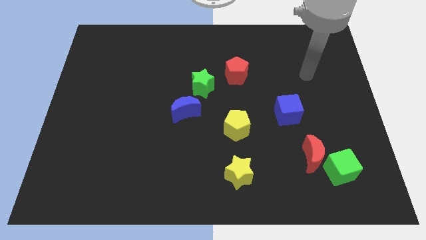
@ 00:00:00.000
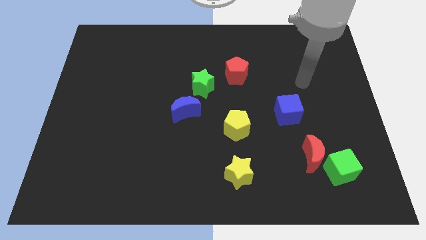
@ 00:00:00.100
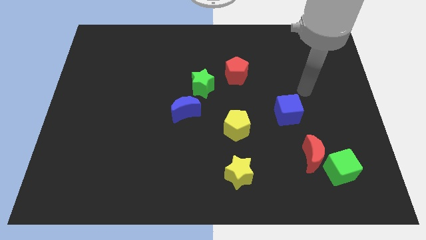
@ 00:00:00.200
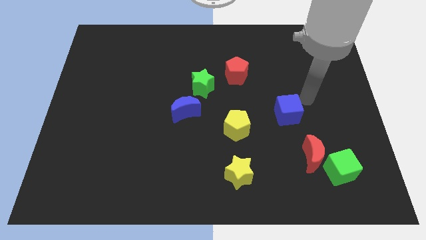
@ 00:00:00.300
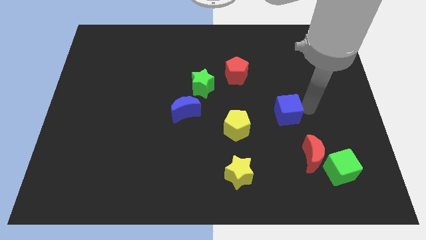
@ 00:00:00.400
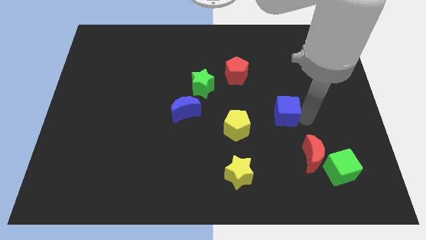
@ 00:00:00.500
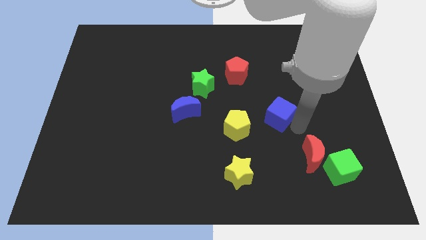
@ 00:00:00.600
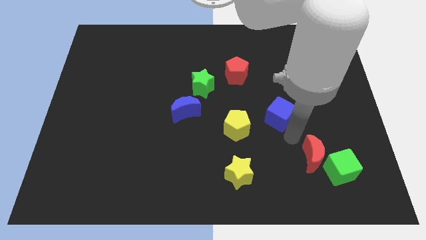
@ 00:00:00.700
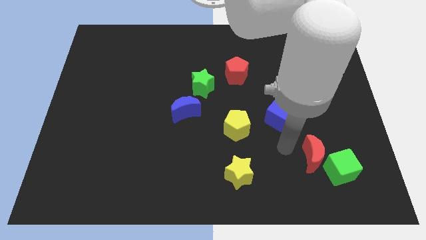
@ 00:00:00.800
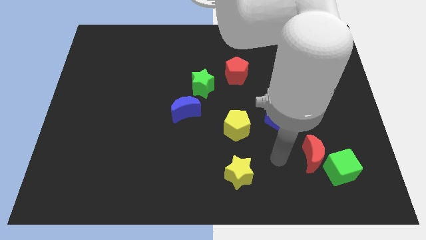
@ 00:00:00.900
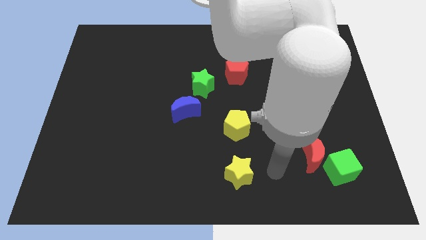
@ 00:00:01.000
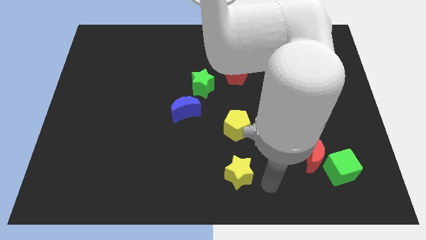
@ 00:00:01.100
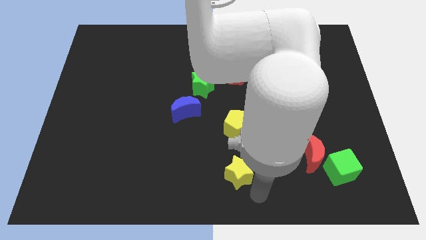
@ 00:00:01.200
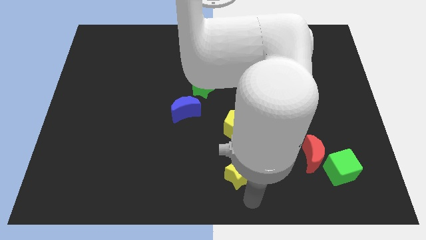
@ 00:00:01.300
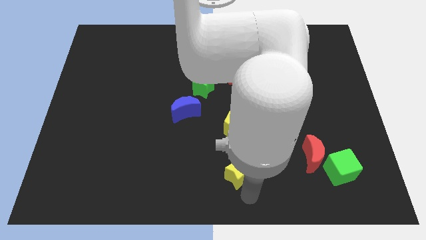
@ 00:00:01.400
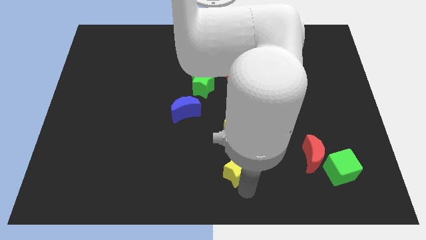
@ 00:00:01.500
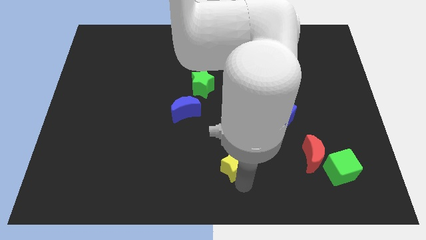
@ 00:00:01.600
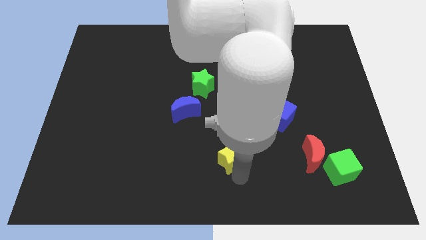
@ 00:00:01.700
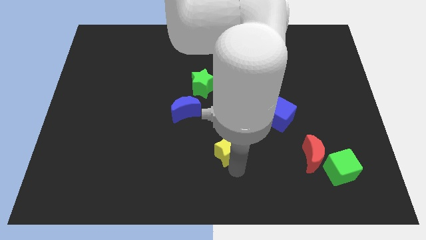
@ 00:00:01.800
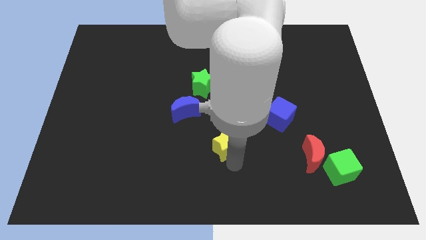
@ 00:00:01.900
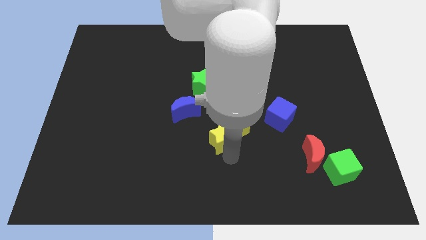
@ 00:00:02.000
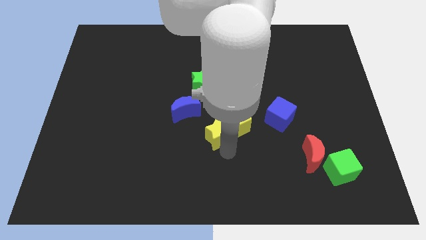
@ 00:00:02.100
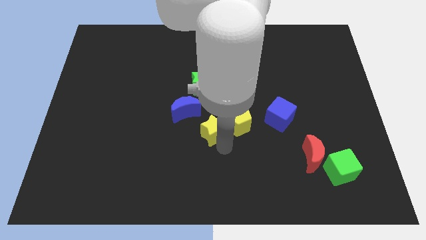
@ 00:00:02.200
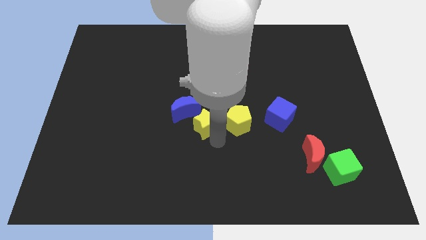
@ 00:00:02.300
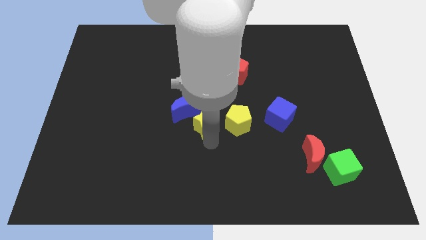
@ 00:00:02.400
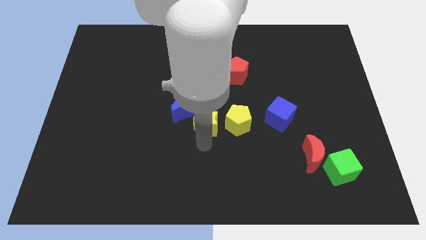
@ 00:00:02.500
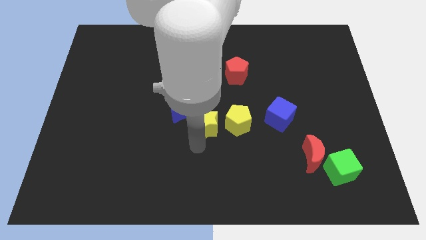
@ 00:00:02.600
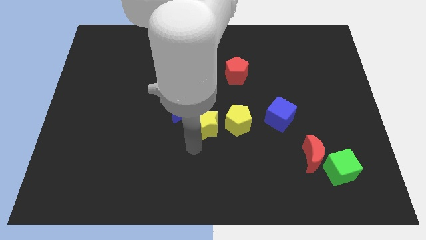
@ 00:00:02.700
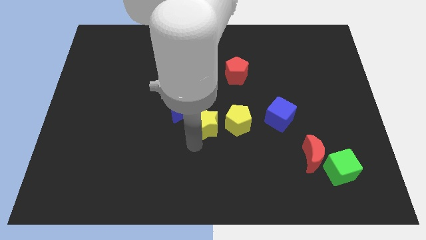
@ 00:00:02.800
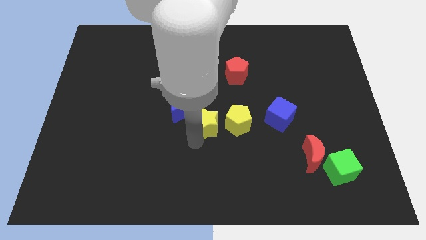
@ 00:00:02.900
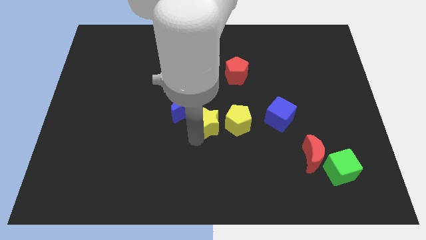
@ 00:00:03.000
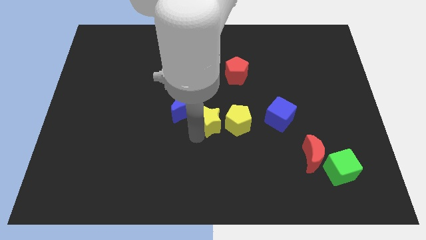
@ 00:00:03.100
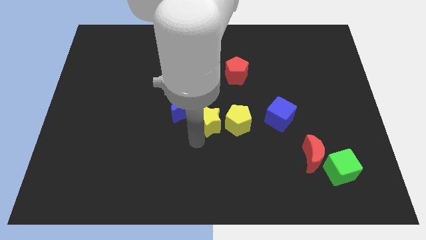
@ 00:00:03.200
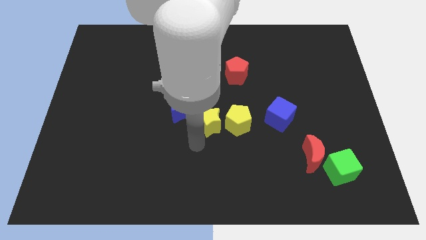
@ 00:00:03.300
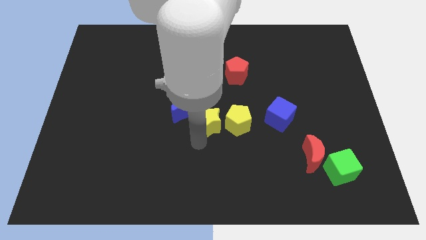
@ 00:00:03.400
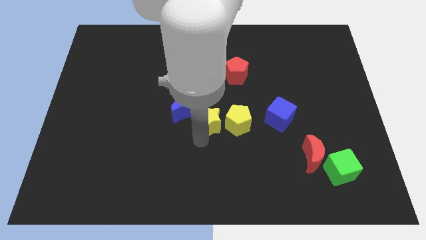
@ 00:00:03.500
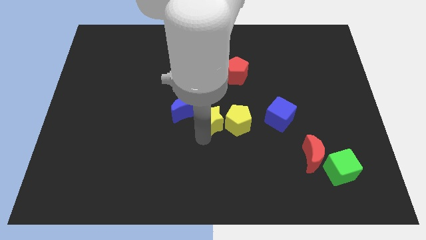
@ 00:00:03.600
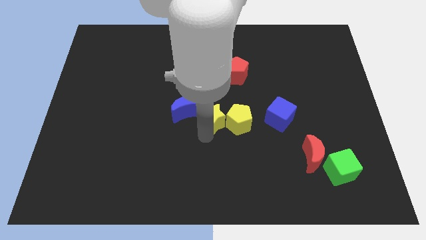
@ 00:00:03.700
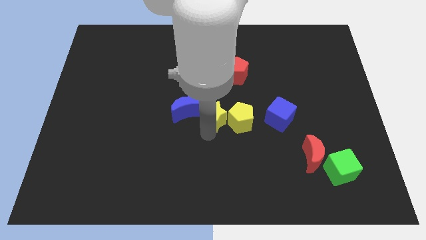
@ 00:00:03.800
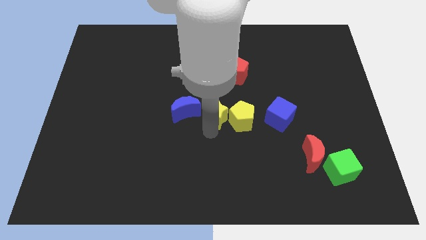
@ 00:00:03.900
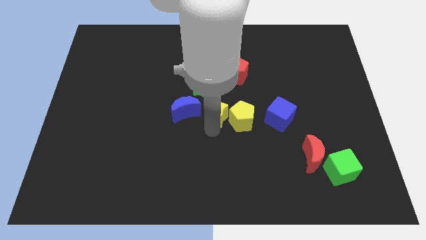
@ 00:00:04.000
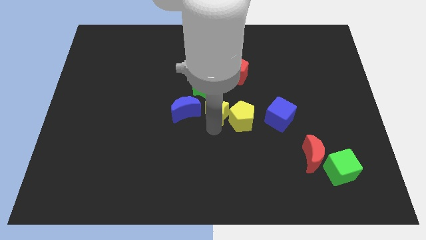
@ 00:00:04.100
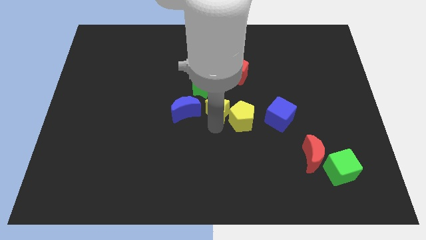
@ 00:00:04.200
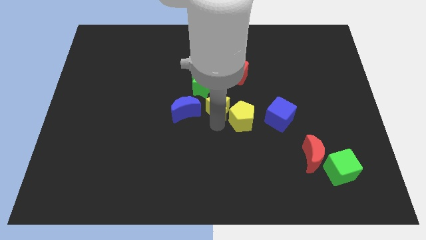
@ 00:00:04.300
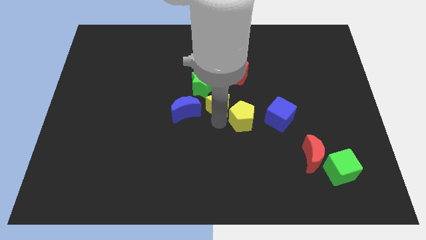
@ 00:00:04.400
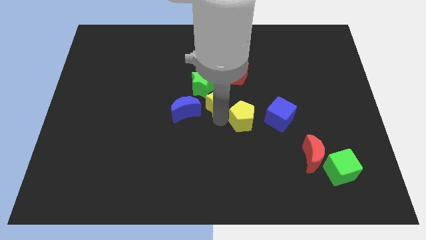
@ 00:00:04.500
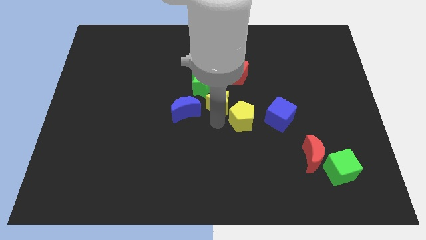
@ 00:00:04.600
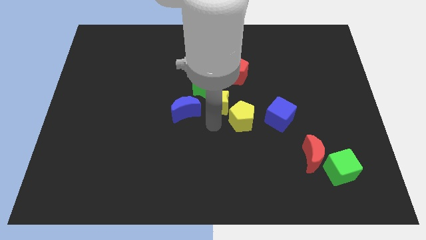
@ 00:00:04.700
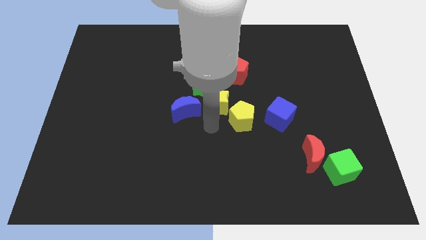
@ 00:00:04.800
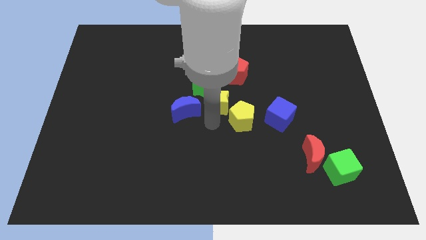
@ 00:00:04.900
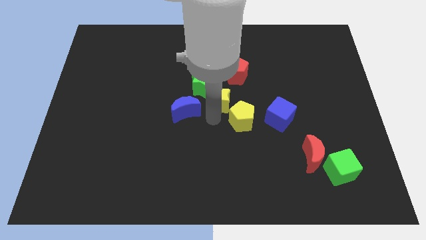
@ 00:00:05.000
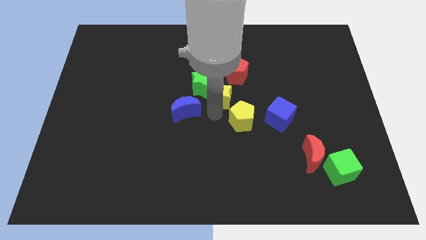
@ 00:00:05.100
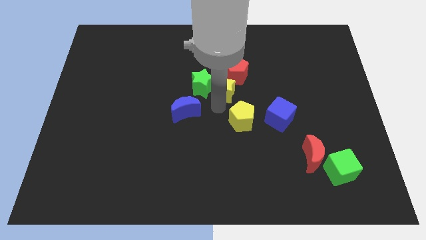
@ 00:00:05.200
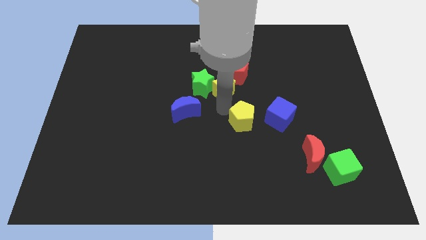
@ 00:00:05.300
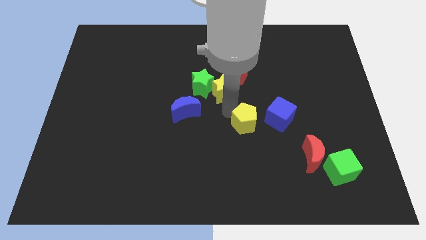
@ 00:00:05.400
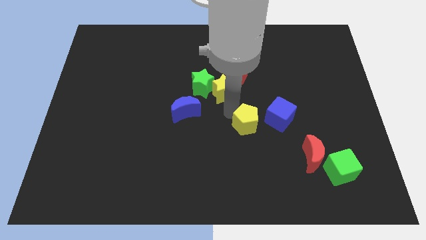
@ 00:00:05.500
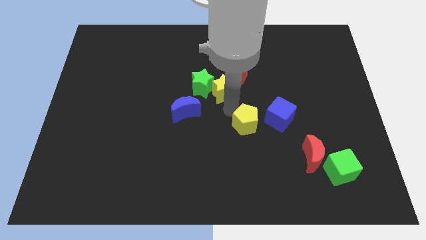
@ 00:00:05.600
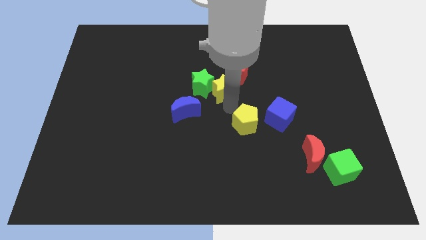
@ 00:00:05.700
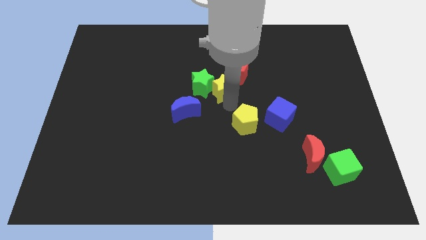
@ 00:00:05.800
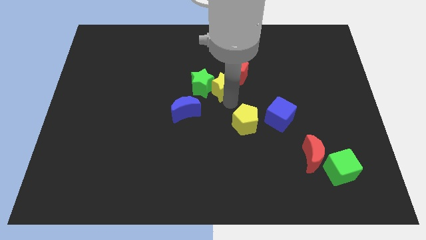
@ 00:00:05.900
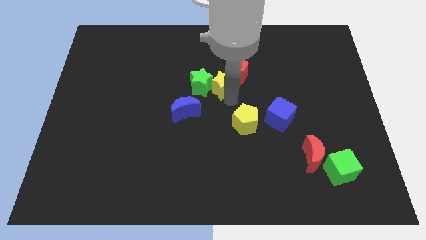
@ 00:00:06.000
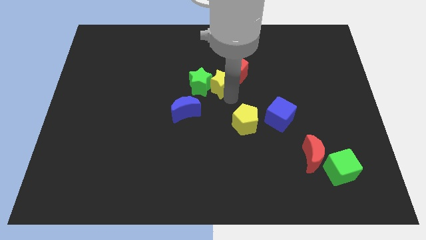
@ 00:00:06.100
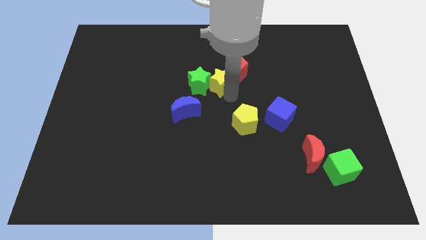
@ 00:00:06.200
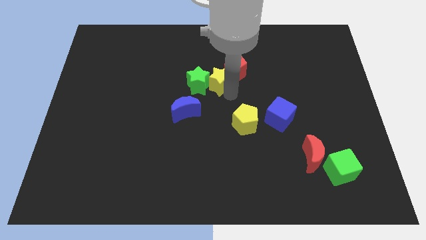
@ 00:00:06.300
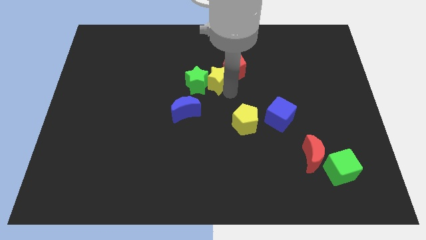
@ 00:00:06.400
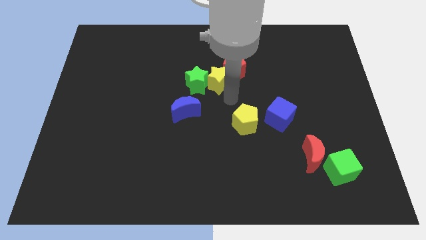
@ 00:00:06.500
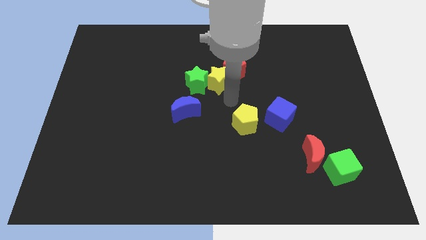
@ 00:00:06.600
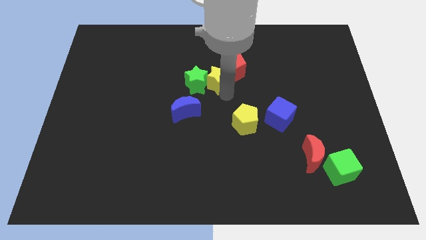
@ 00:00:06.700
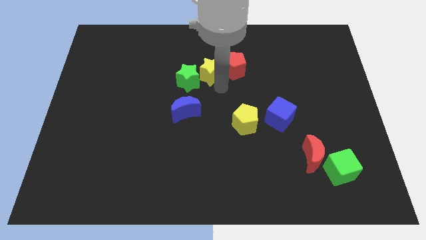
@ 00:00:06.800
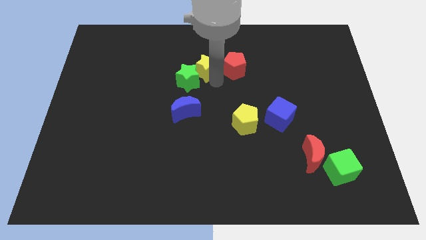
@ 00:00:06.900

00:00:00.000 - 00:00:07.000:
move the yellow star to the top of the green star

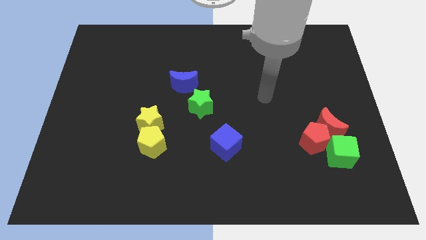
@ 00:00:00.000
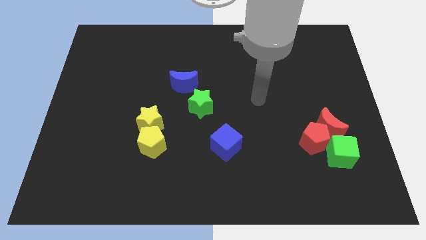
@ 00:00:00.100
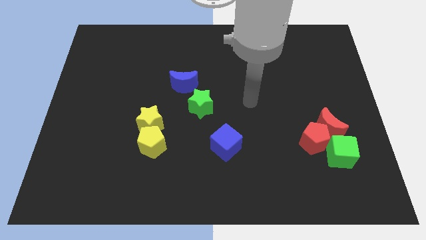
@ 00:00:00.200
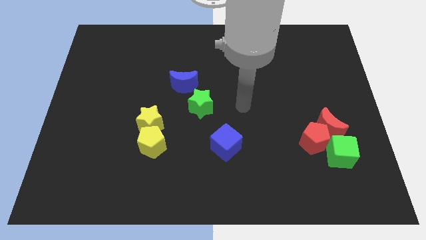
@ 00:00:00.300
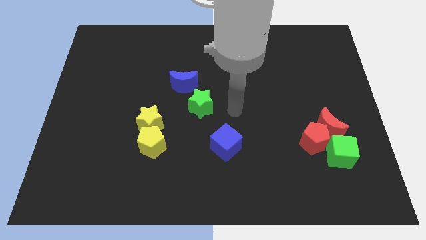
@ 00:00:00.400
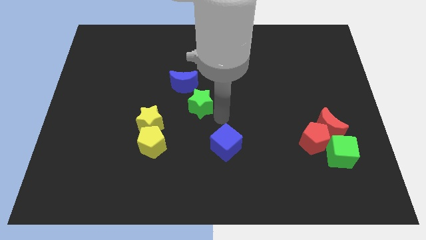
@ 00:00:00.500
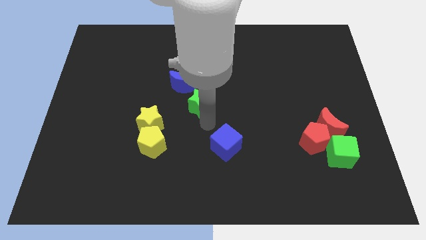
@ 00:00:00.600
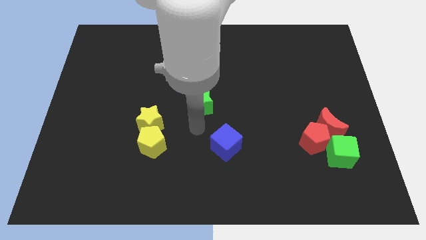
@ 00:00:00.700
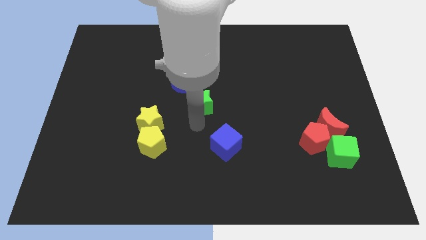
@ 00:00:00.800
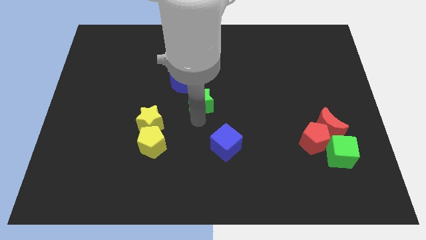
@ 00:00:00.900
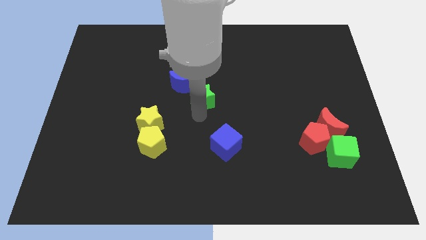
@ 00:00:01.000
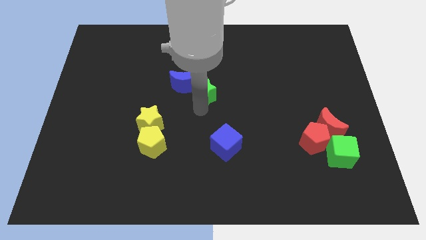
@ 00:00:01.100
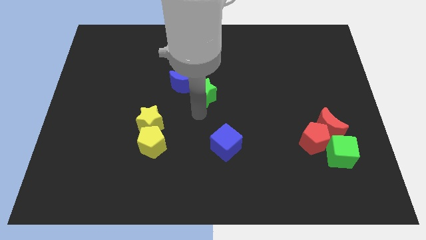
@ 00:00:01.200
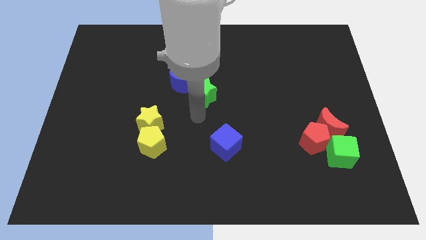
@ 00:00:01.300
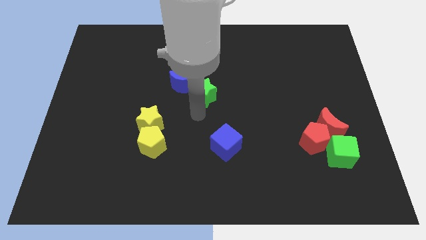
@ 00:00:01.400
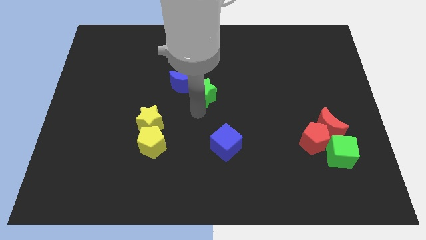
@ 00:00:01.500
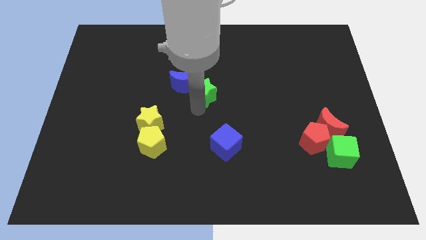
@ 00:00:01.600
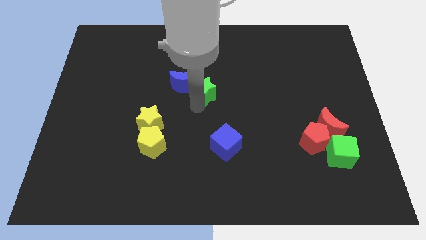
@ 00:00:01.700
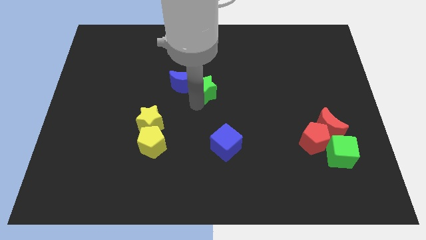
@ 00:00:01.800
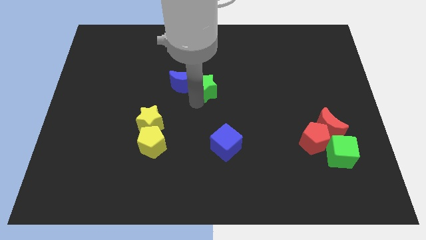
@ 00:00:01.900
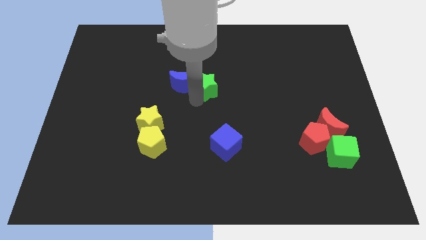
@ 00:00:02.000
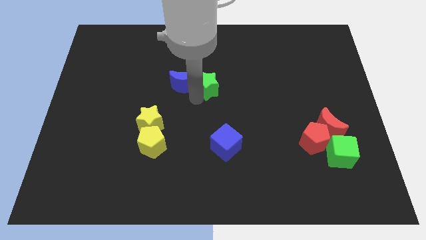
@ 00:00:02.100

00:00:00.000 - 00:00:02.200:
slide the green star to the top right of the blue moon
